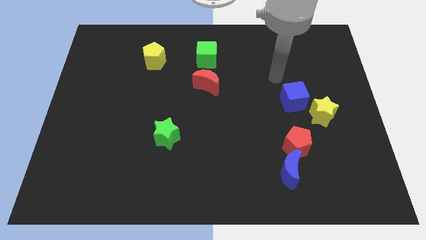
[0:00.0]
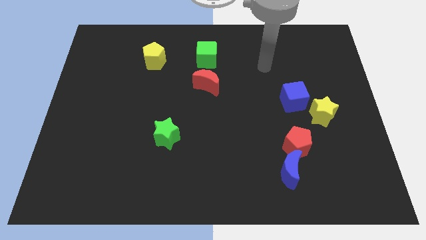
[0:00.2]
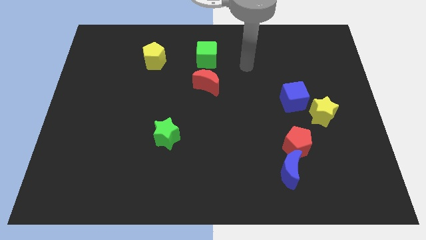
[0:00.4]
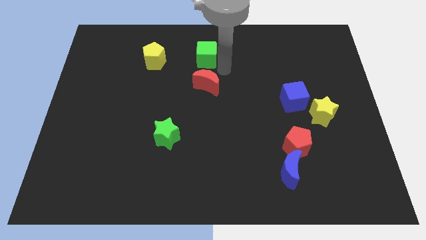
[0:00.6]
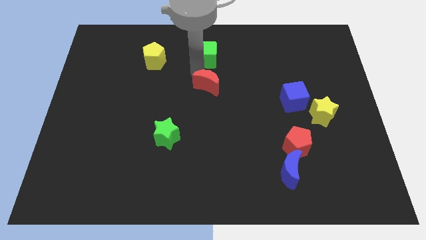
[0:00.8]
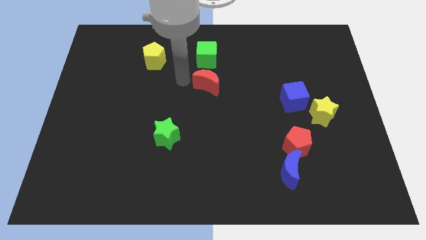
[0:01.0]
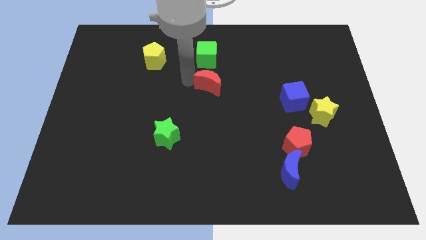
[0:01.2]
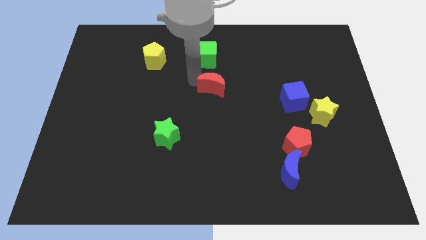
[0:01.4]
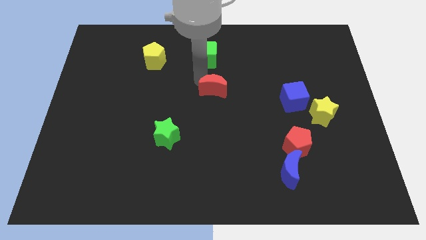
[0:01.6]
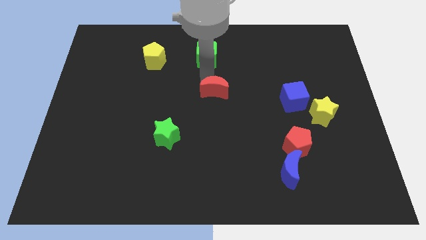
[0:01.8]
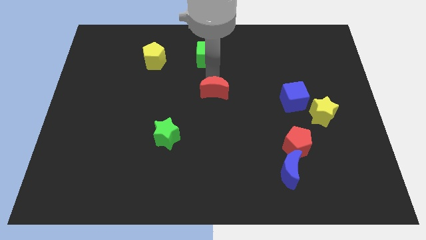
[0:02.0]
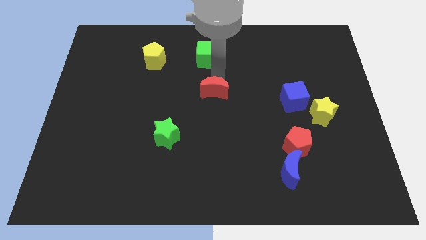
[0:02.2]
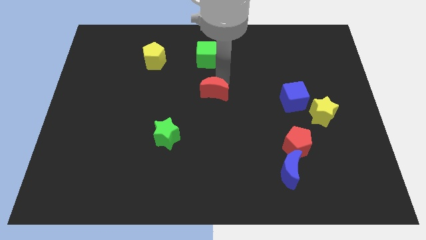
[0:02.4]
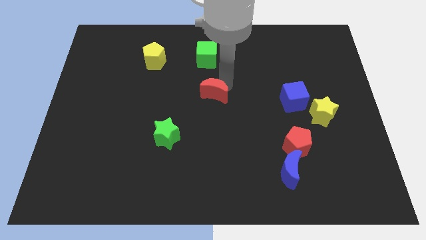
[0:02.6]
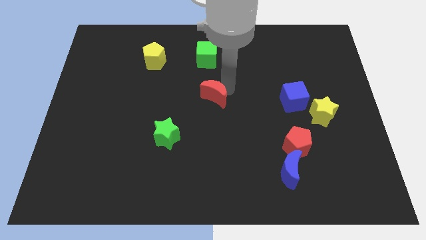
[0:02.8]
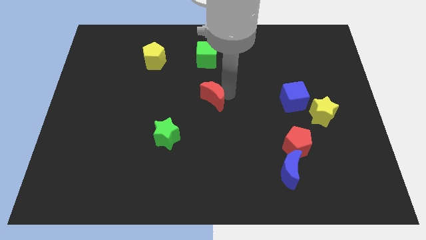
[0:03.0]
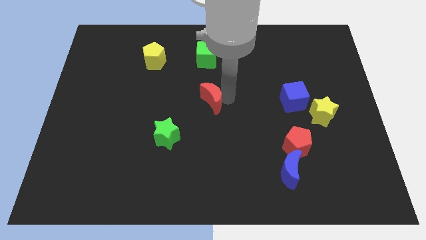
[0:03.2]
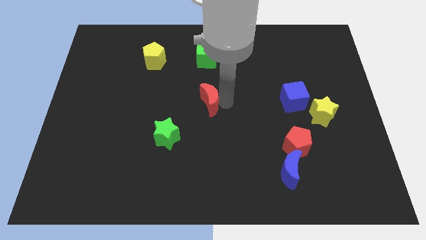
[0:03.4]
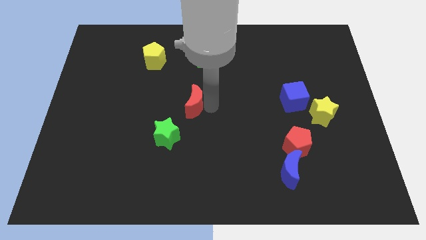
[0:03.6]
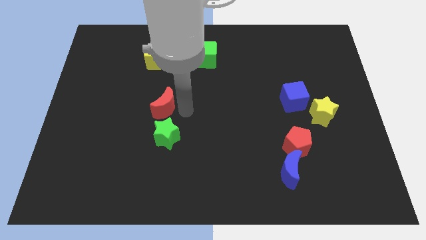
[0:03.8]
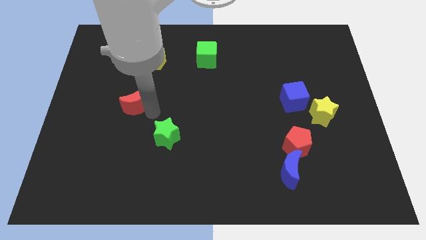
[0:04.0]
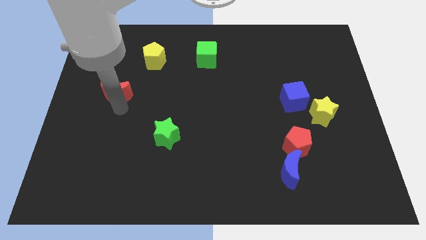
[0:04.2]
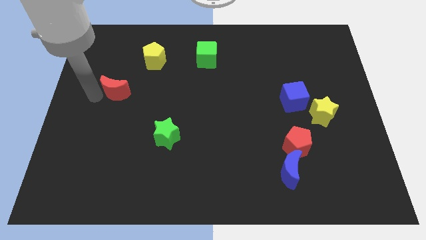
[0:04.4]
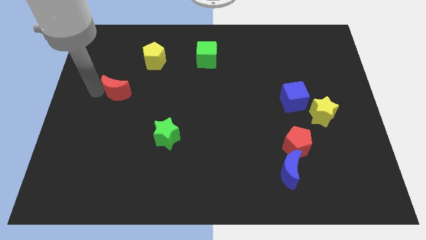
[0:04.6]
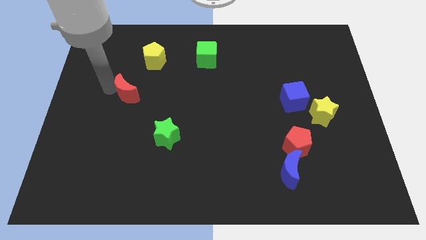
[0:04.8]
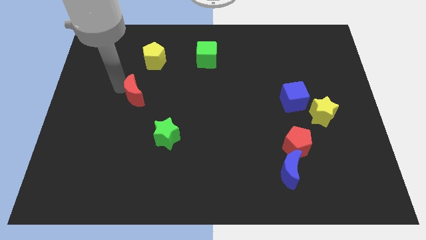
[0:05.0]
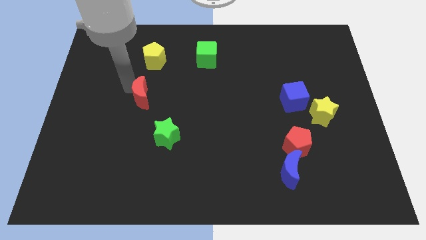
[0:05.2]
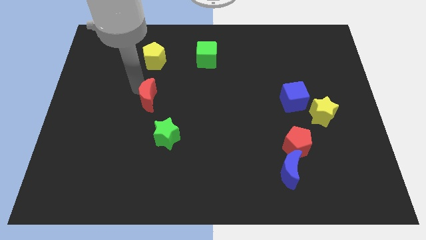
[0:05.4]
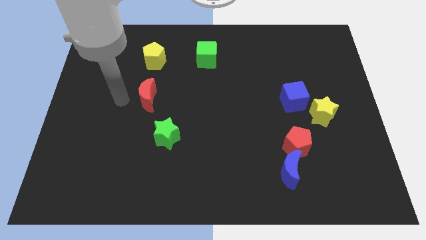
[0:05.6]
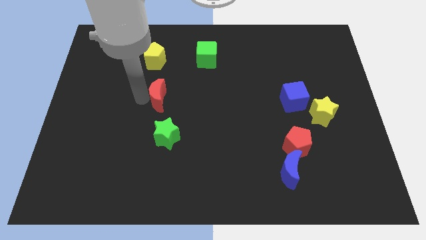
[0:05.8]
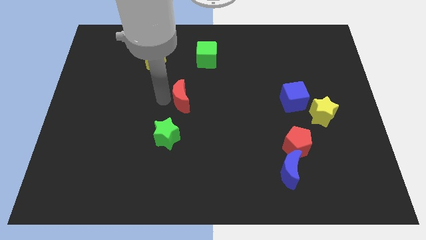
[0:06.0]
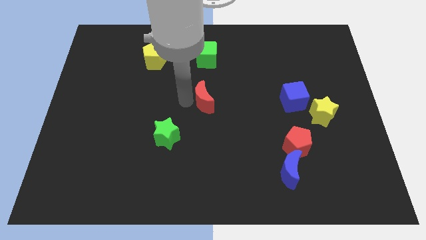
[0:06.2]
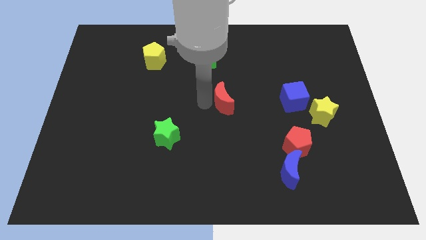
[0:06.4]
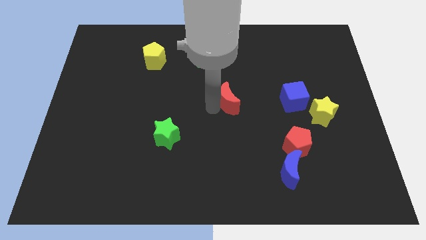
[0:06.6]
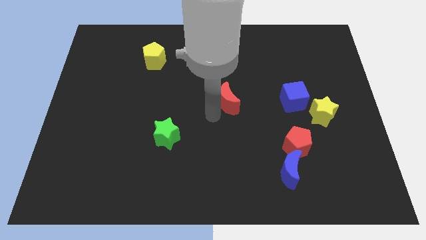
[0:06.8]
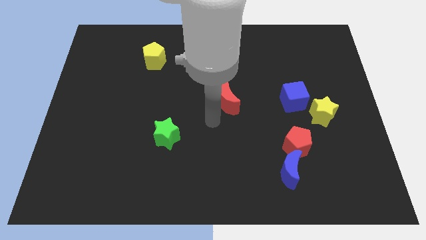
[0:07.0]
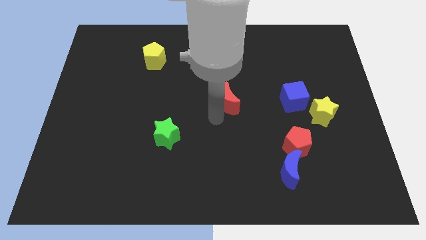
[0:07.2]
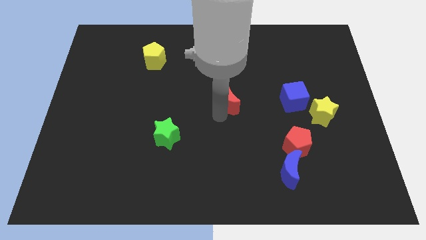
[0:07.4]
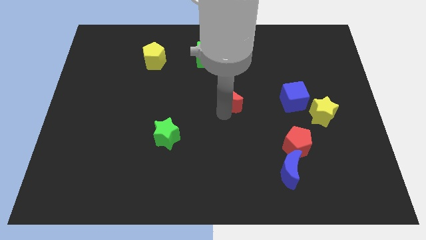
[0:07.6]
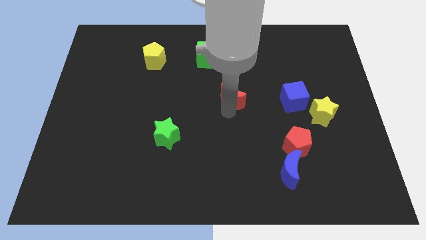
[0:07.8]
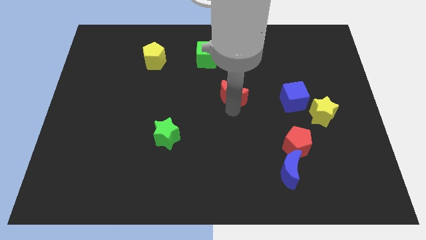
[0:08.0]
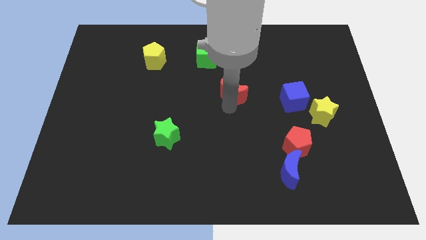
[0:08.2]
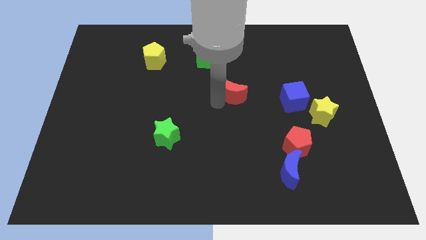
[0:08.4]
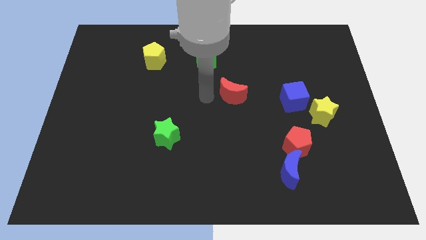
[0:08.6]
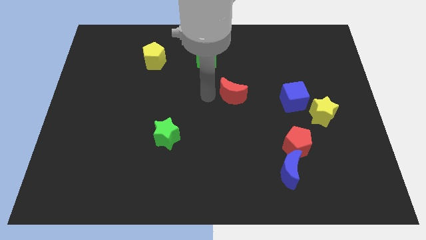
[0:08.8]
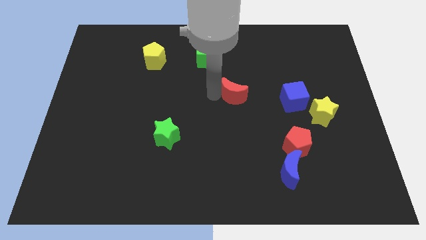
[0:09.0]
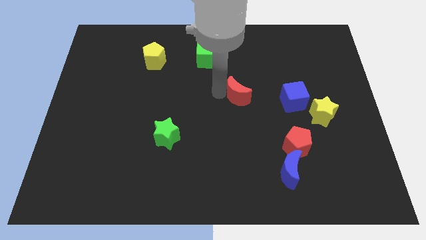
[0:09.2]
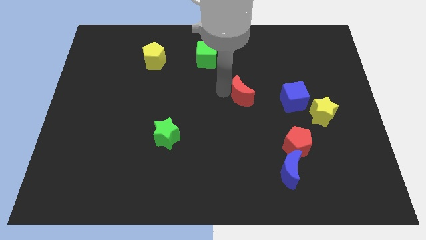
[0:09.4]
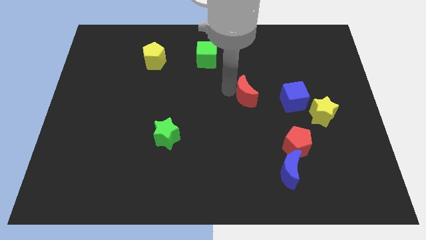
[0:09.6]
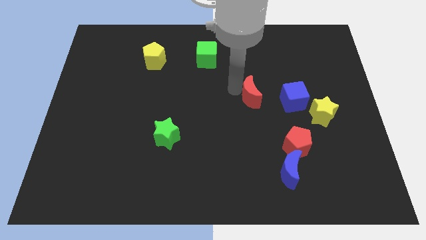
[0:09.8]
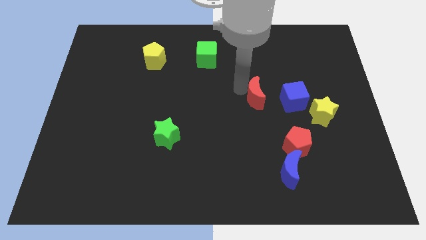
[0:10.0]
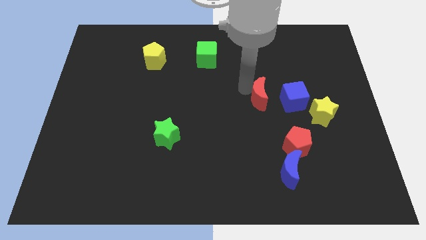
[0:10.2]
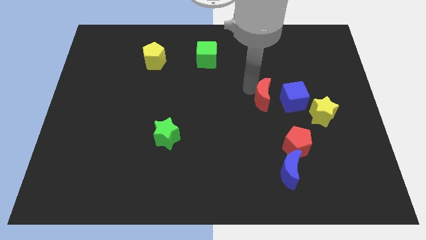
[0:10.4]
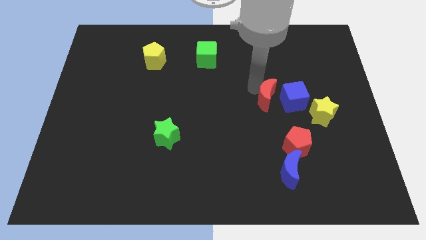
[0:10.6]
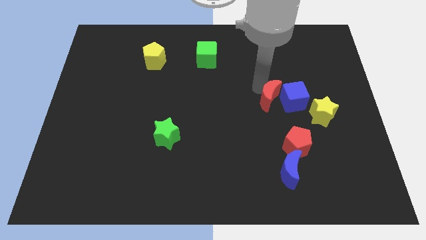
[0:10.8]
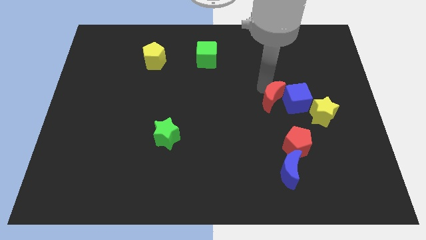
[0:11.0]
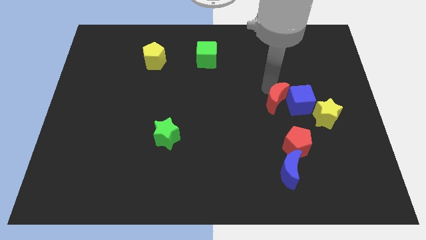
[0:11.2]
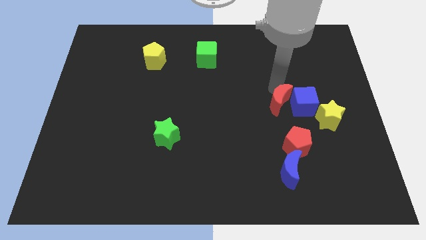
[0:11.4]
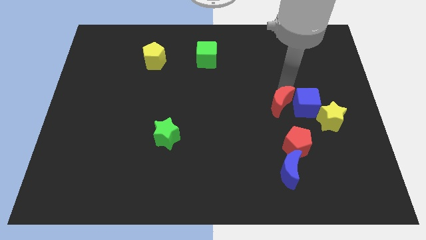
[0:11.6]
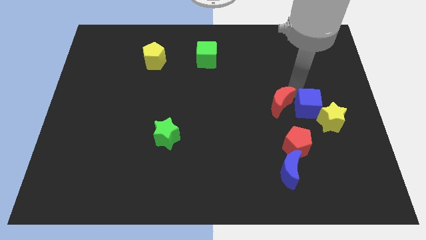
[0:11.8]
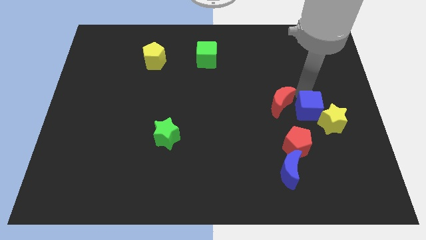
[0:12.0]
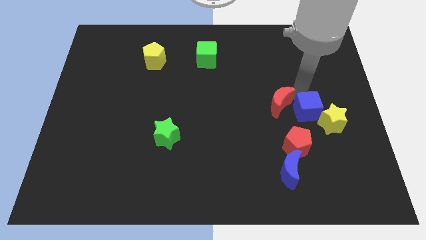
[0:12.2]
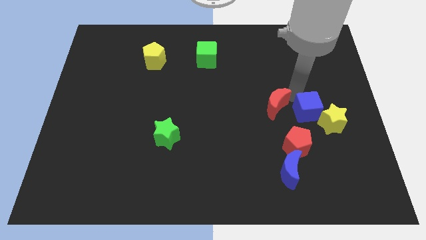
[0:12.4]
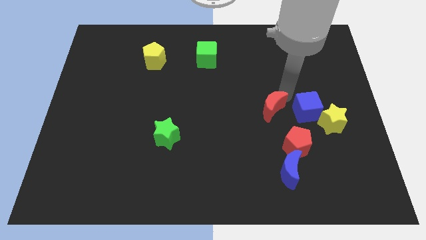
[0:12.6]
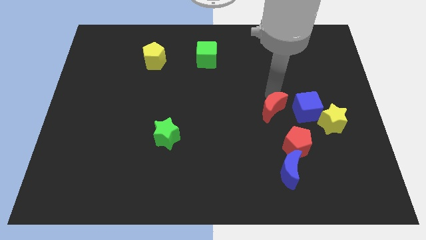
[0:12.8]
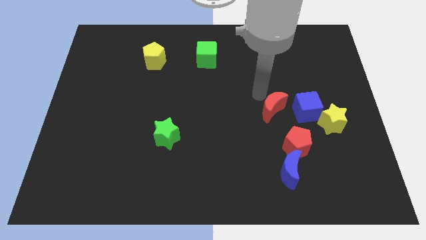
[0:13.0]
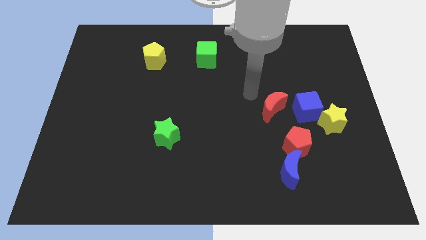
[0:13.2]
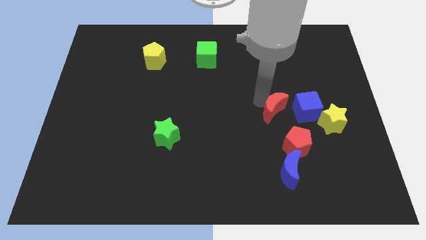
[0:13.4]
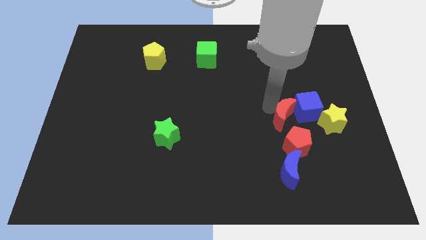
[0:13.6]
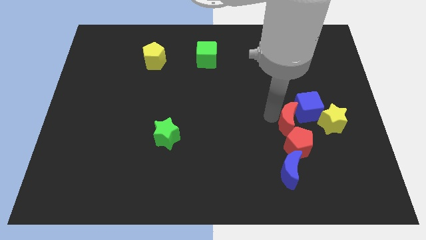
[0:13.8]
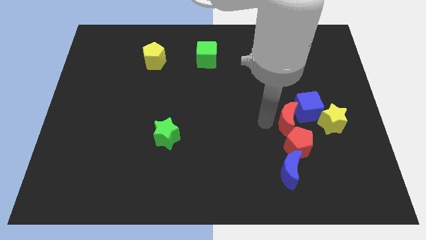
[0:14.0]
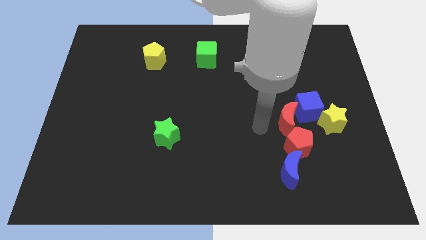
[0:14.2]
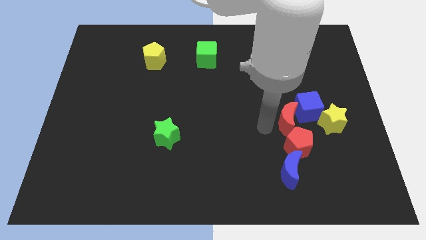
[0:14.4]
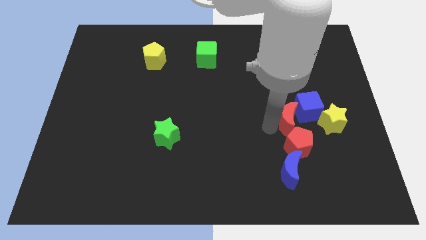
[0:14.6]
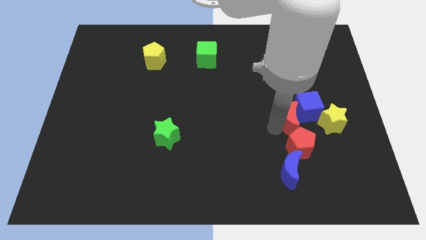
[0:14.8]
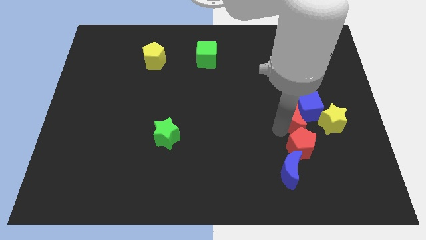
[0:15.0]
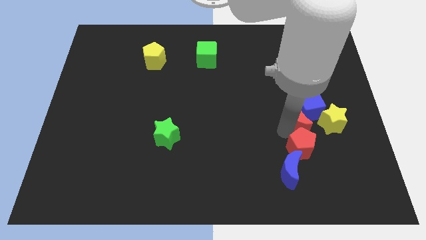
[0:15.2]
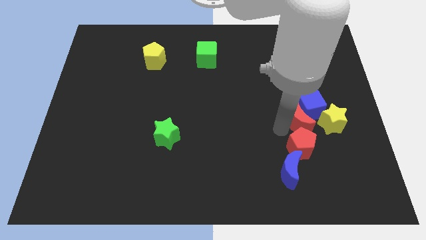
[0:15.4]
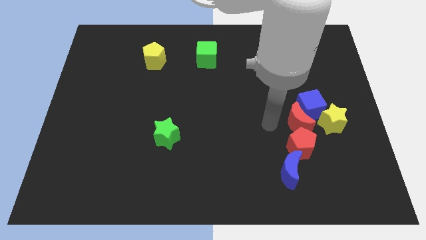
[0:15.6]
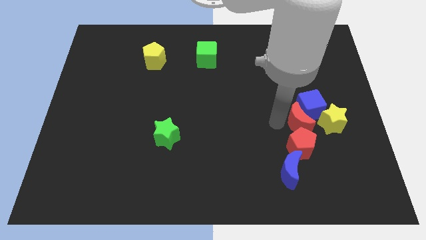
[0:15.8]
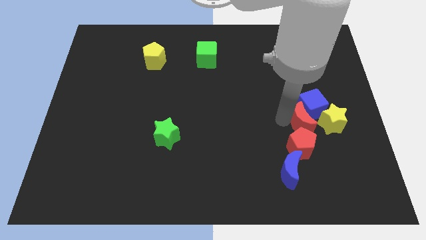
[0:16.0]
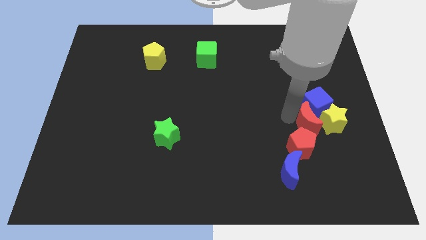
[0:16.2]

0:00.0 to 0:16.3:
slide the red moon close to the yellow star

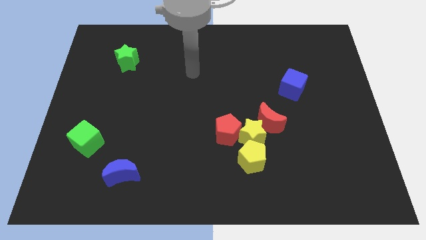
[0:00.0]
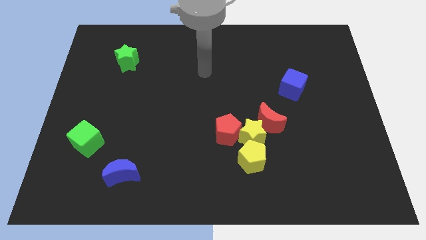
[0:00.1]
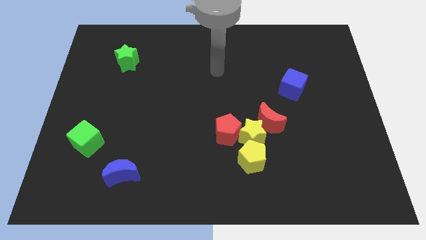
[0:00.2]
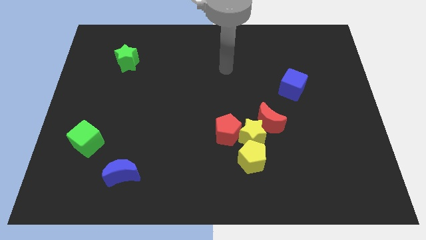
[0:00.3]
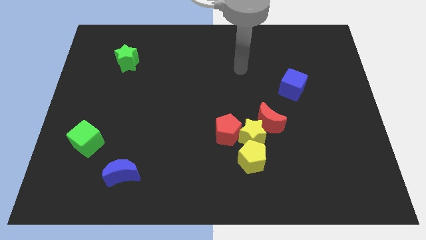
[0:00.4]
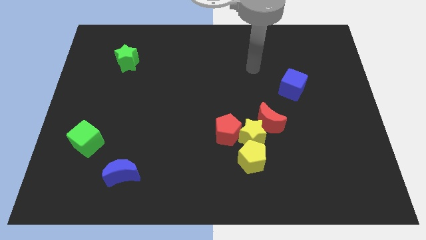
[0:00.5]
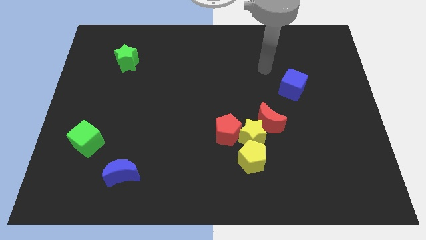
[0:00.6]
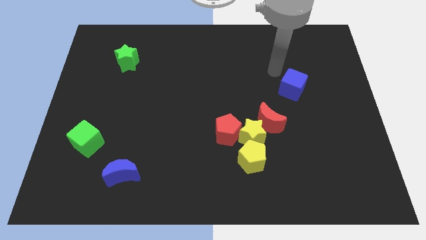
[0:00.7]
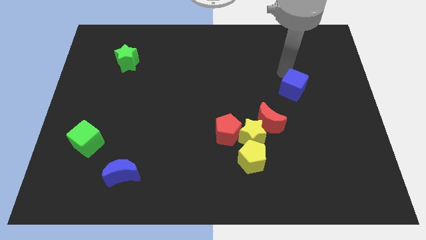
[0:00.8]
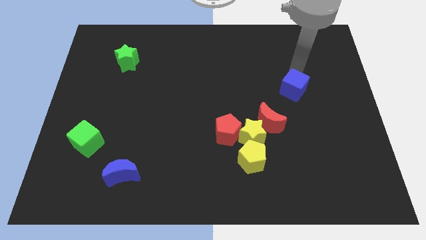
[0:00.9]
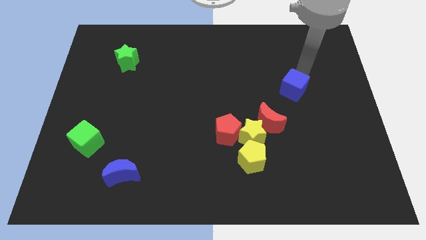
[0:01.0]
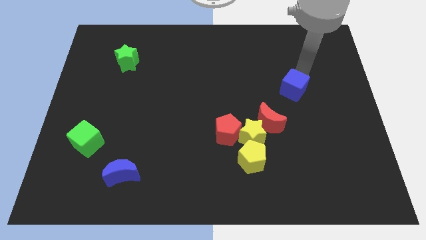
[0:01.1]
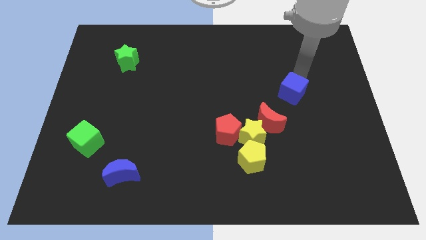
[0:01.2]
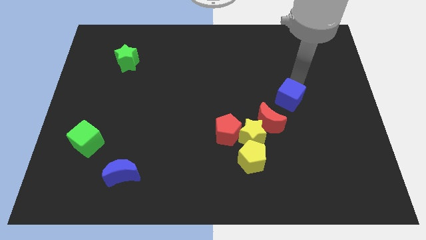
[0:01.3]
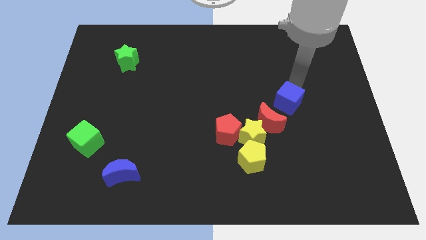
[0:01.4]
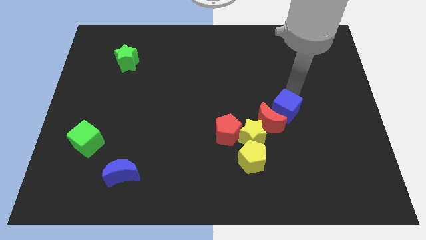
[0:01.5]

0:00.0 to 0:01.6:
move the blue cube to the red moon
